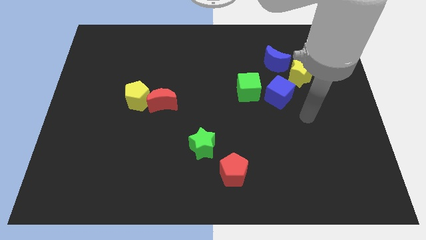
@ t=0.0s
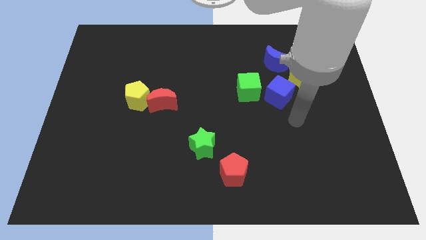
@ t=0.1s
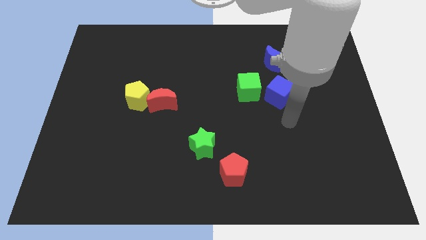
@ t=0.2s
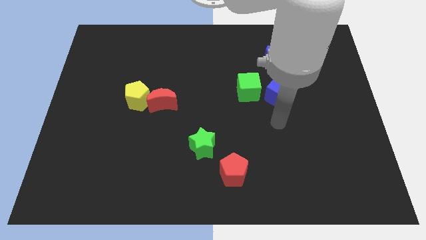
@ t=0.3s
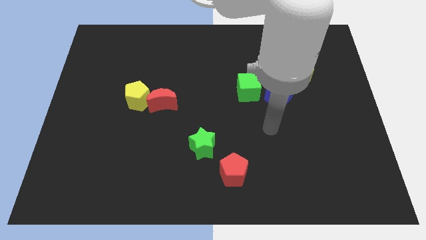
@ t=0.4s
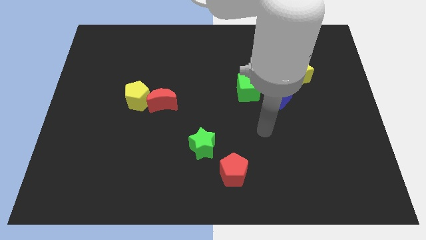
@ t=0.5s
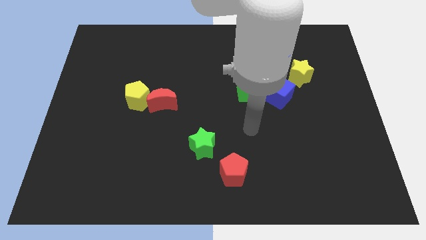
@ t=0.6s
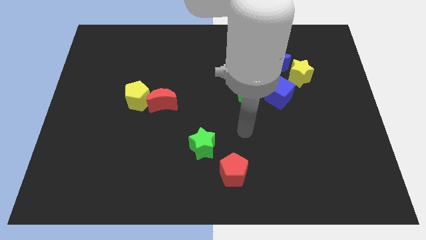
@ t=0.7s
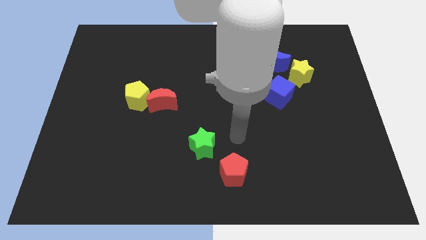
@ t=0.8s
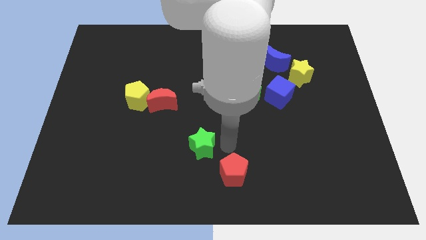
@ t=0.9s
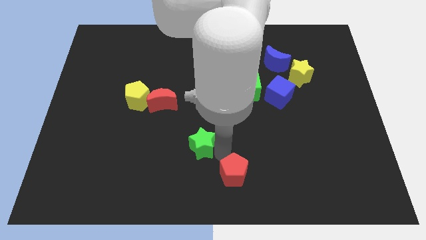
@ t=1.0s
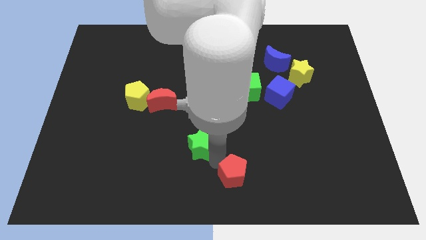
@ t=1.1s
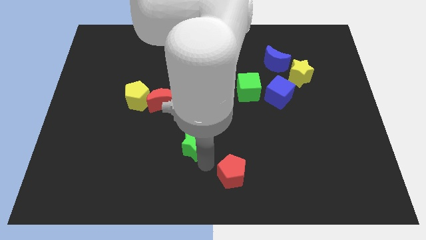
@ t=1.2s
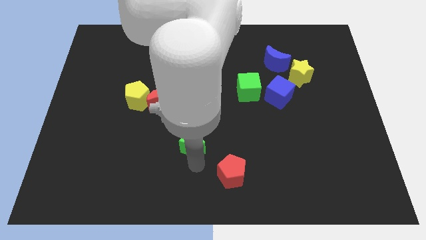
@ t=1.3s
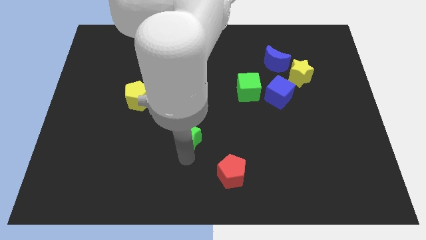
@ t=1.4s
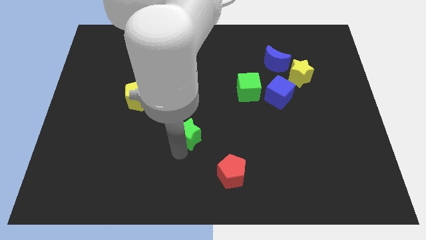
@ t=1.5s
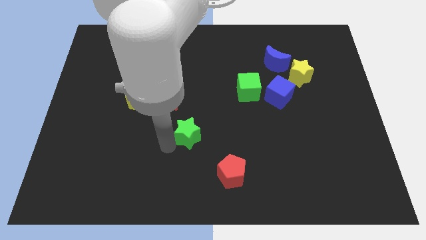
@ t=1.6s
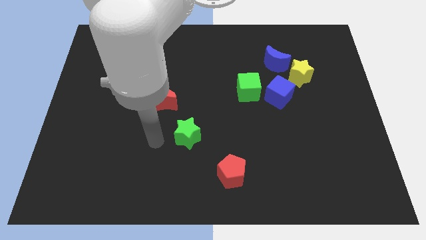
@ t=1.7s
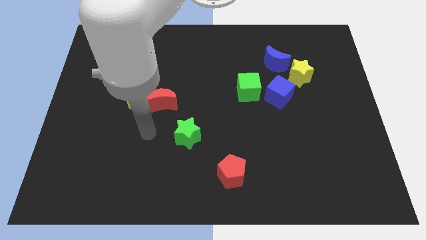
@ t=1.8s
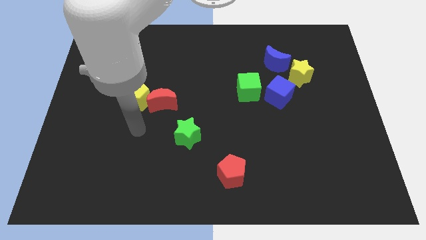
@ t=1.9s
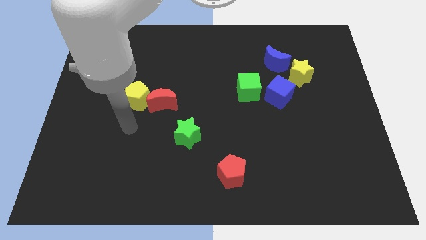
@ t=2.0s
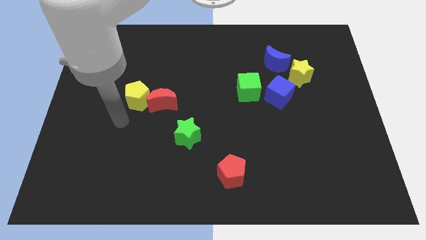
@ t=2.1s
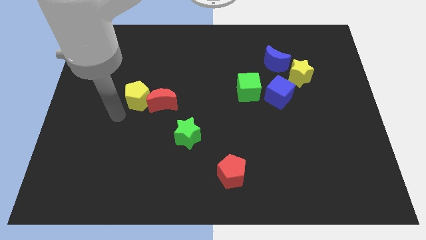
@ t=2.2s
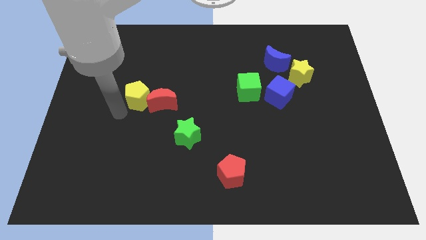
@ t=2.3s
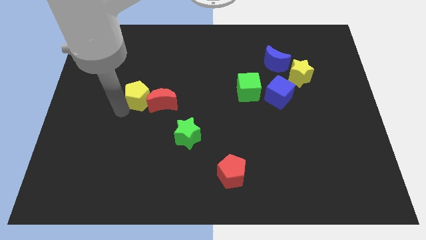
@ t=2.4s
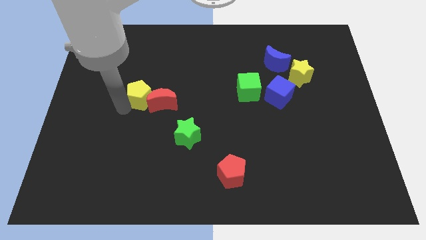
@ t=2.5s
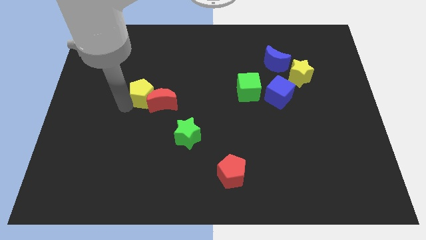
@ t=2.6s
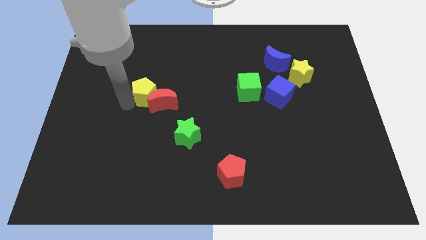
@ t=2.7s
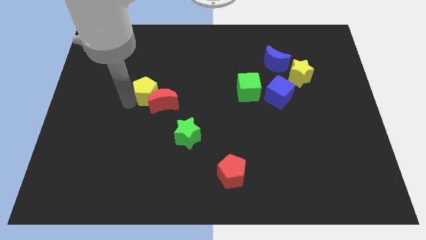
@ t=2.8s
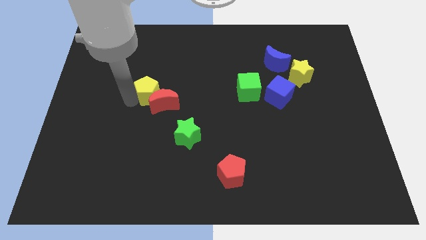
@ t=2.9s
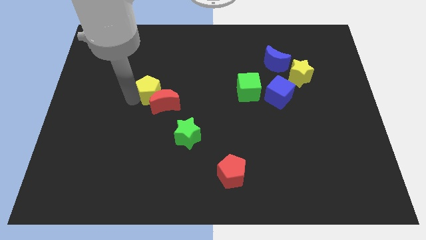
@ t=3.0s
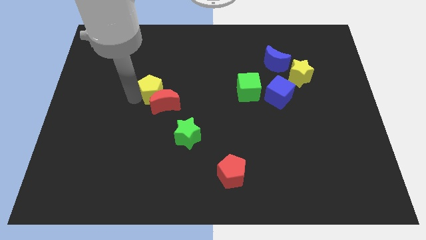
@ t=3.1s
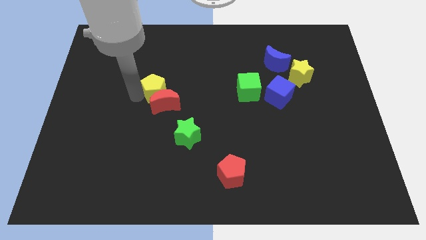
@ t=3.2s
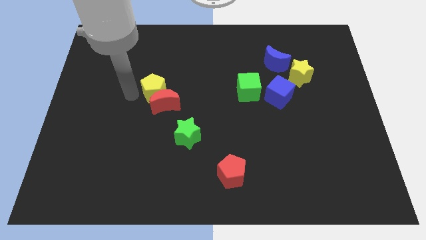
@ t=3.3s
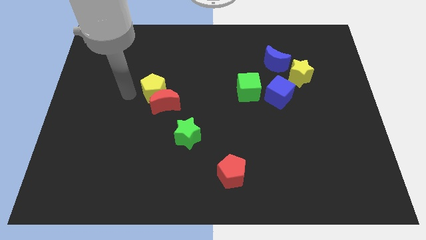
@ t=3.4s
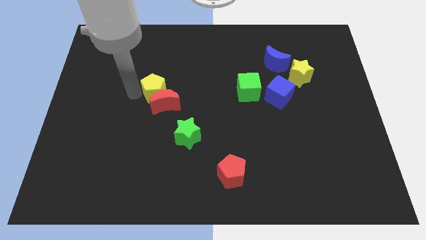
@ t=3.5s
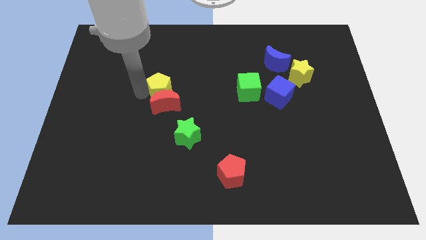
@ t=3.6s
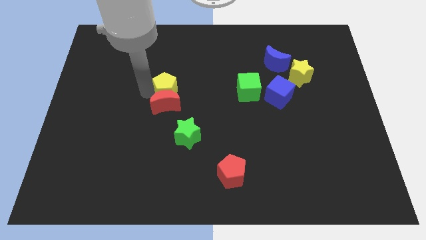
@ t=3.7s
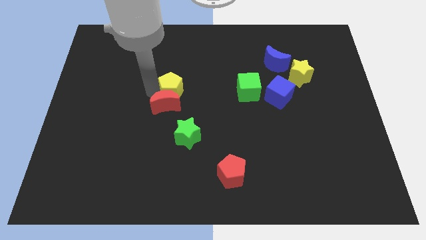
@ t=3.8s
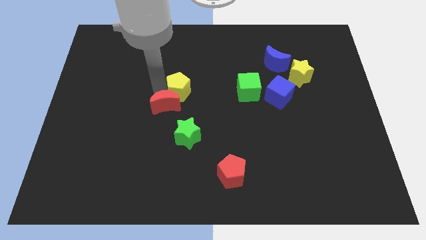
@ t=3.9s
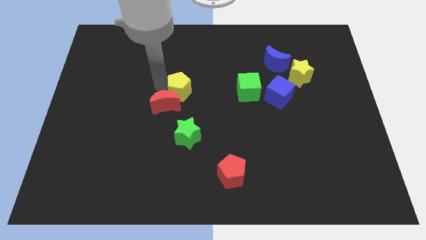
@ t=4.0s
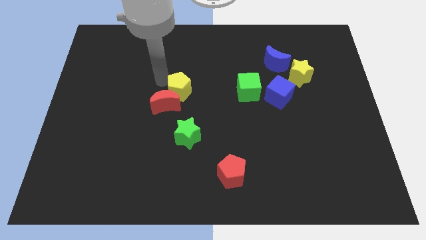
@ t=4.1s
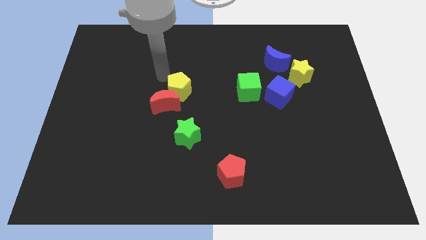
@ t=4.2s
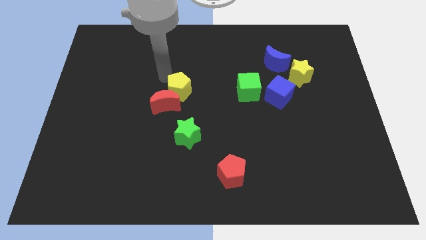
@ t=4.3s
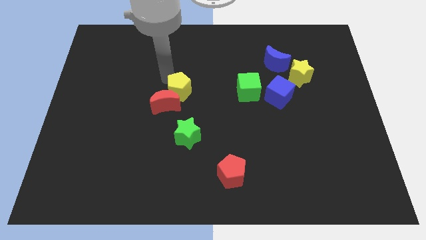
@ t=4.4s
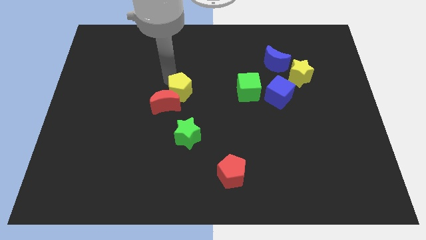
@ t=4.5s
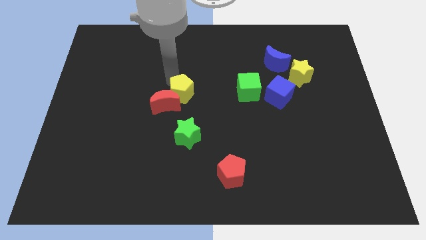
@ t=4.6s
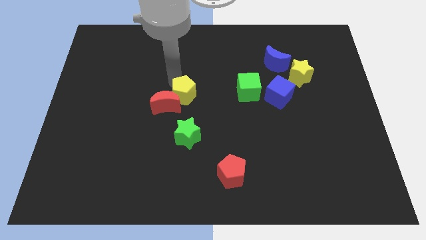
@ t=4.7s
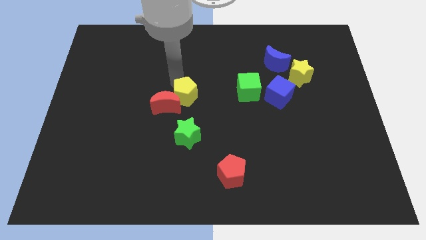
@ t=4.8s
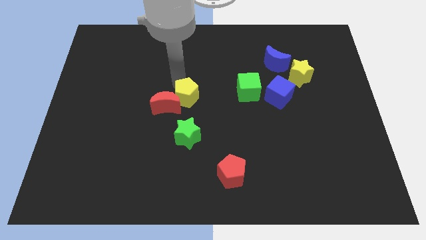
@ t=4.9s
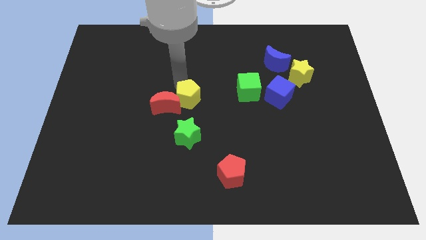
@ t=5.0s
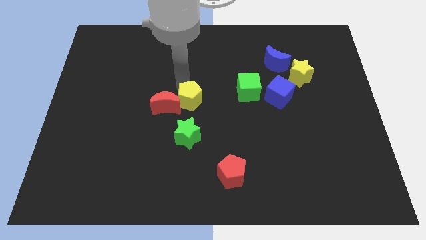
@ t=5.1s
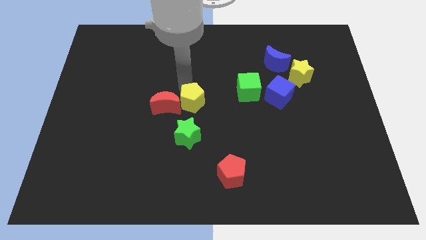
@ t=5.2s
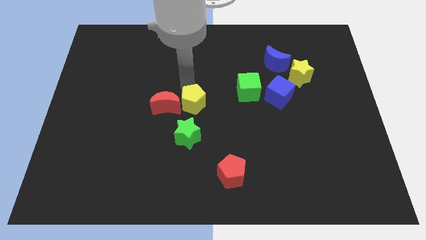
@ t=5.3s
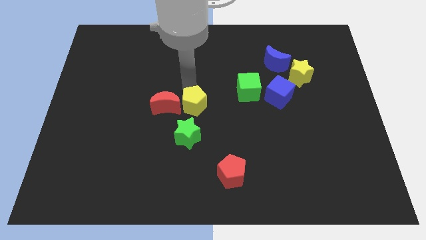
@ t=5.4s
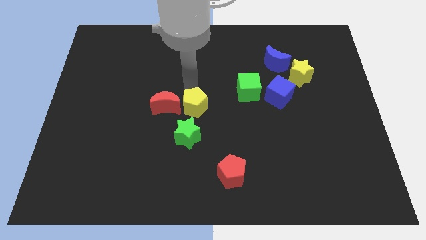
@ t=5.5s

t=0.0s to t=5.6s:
put the yellow pentagon to the top right side of the green star

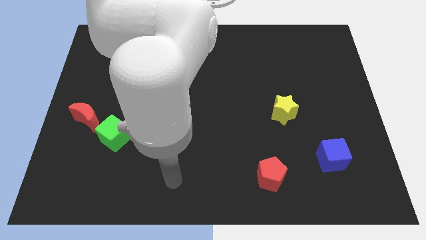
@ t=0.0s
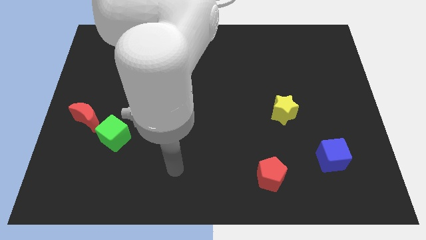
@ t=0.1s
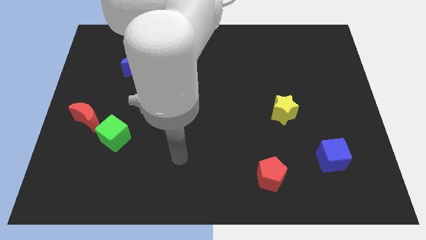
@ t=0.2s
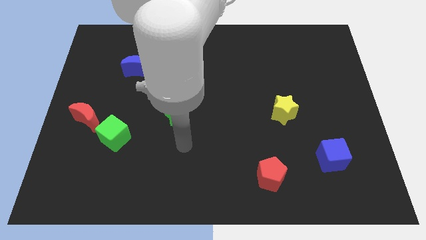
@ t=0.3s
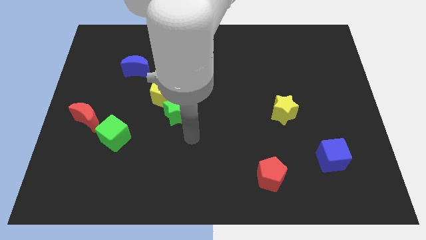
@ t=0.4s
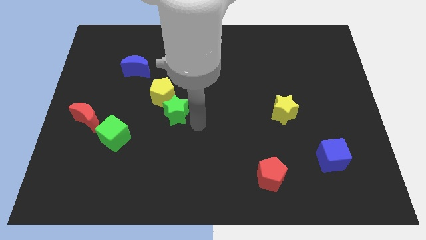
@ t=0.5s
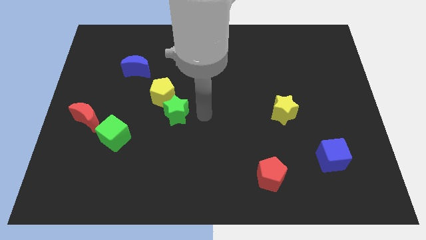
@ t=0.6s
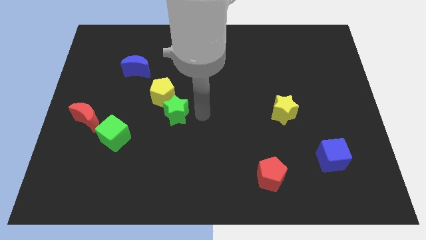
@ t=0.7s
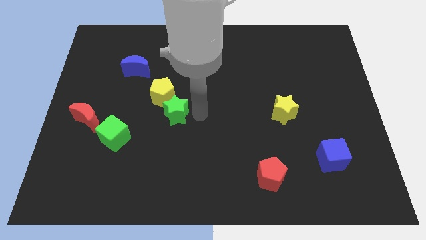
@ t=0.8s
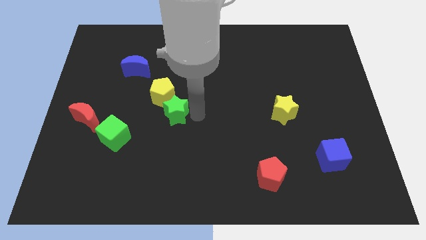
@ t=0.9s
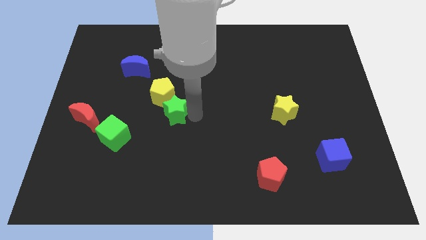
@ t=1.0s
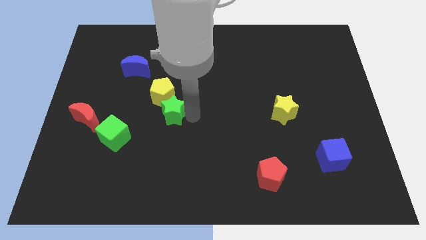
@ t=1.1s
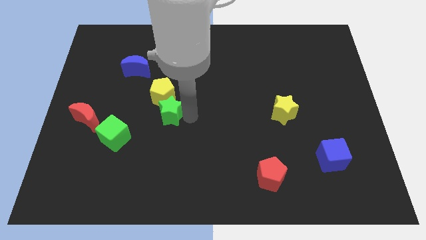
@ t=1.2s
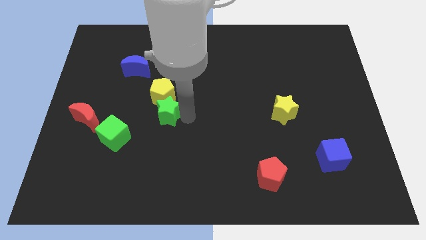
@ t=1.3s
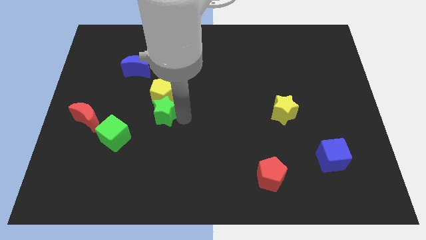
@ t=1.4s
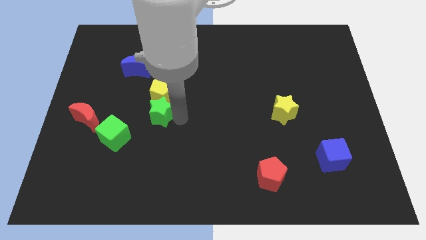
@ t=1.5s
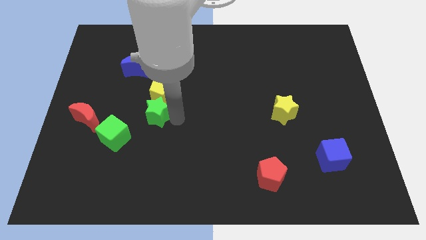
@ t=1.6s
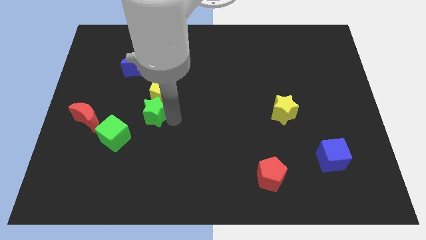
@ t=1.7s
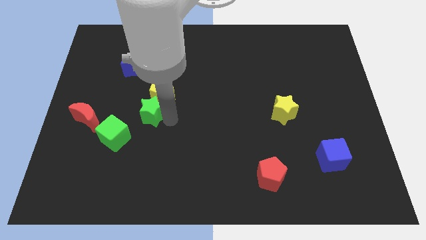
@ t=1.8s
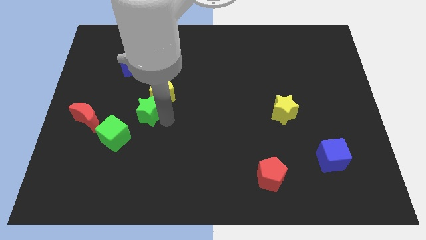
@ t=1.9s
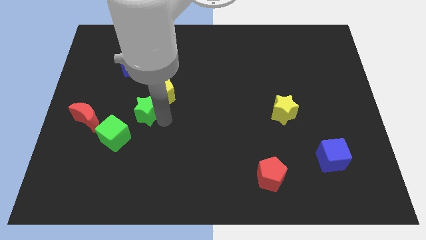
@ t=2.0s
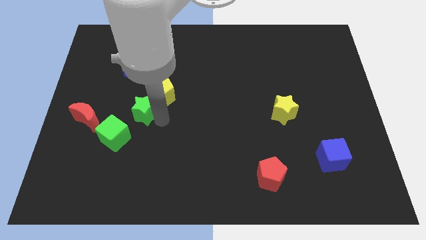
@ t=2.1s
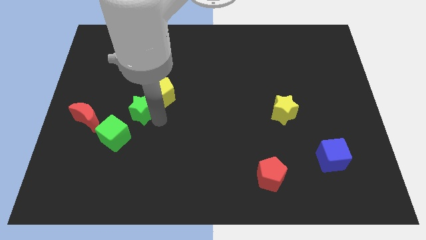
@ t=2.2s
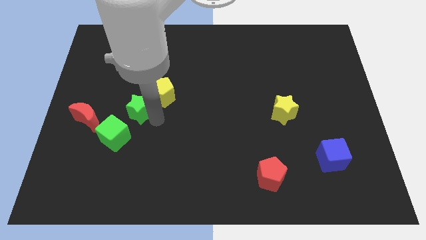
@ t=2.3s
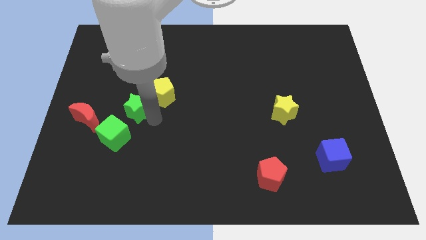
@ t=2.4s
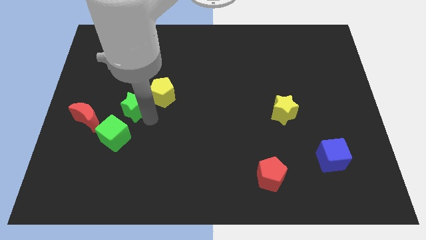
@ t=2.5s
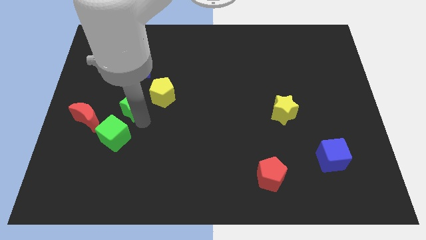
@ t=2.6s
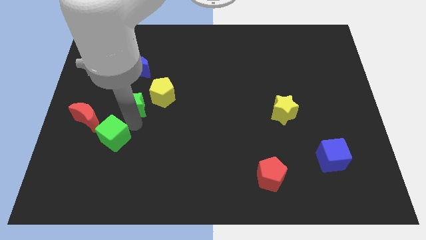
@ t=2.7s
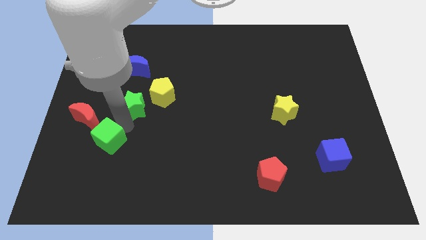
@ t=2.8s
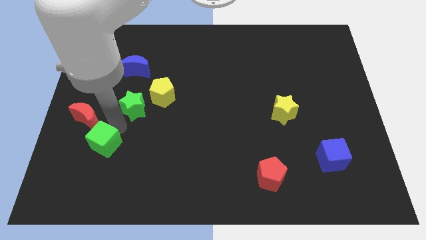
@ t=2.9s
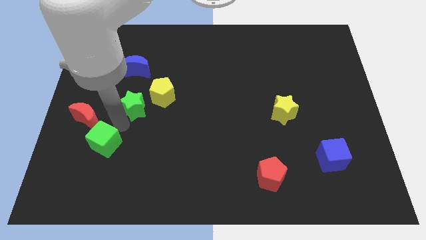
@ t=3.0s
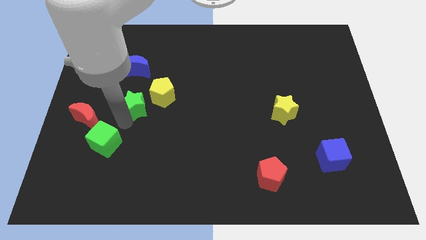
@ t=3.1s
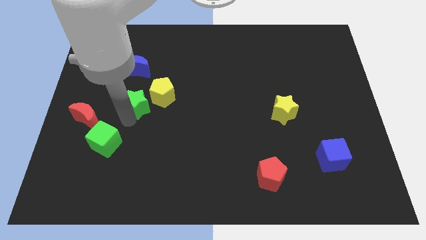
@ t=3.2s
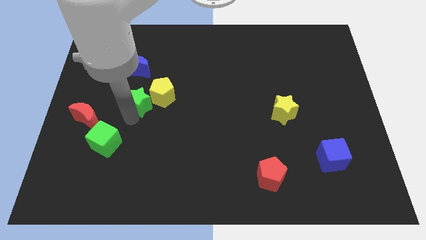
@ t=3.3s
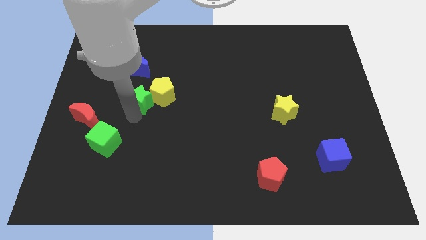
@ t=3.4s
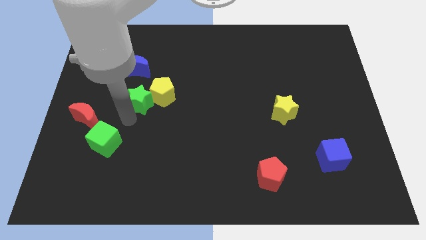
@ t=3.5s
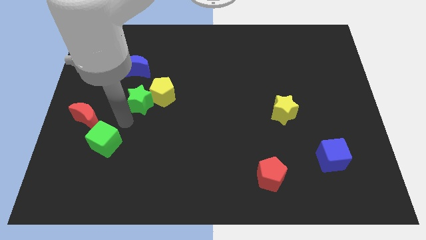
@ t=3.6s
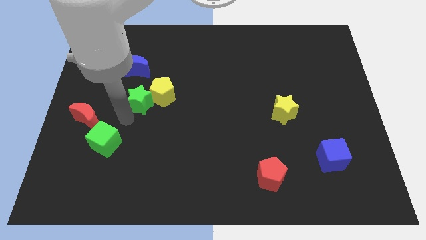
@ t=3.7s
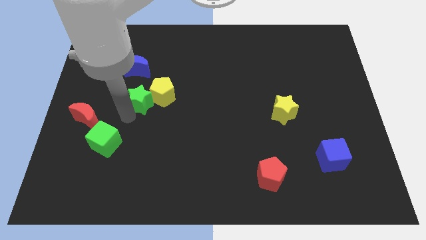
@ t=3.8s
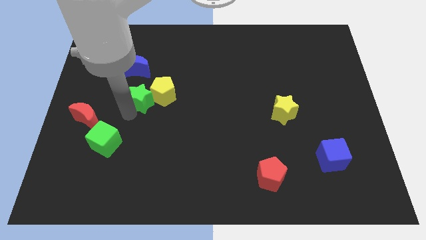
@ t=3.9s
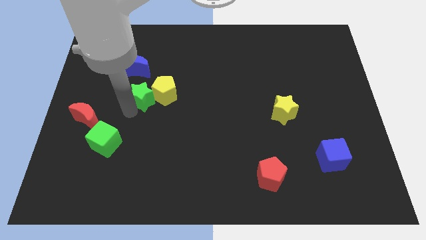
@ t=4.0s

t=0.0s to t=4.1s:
slide the green star diagonally down and to the right of the blue moon
